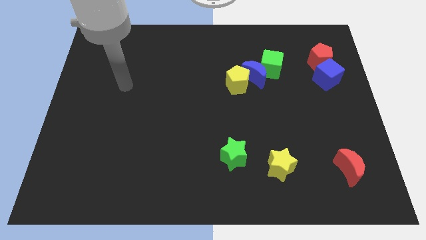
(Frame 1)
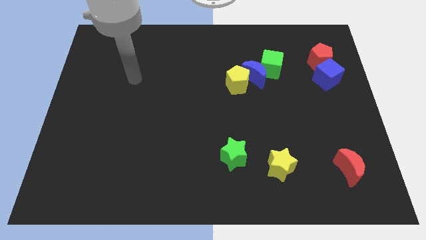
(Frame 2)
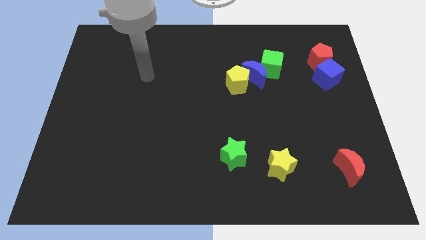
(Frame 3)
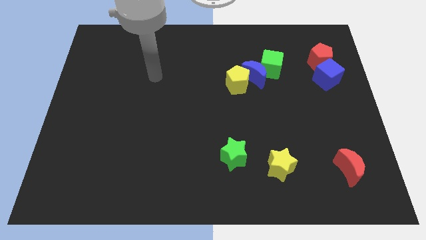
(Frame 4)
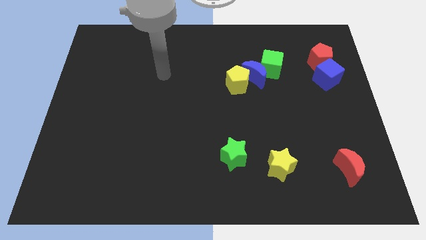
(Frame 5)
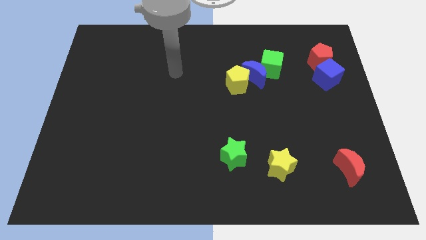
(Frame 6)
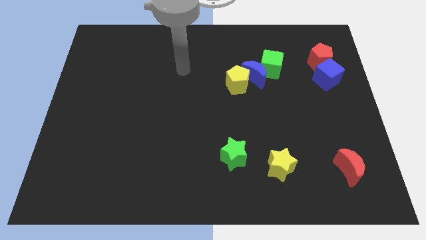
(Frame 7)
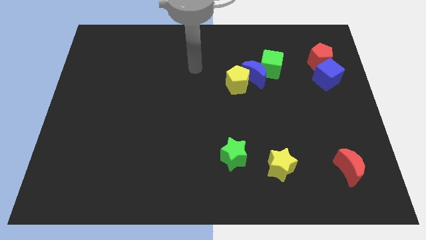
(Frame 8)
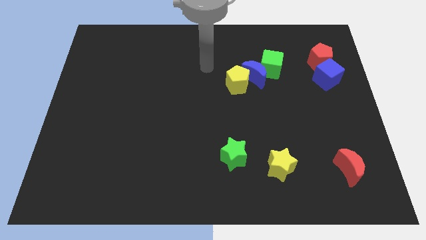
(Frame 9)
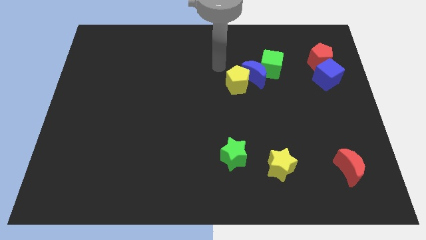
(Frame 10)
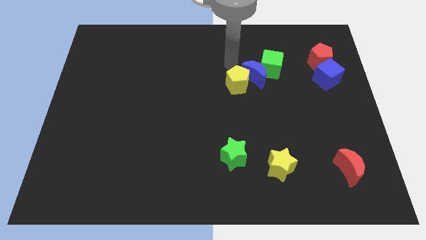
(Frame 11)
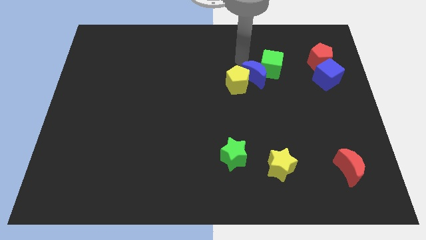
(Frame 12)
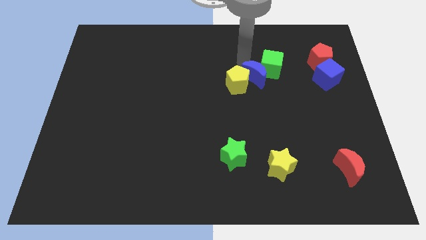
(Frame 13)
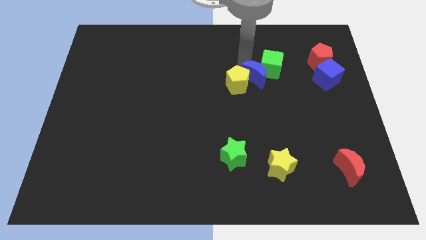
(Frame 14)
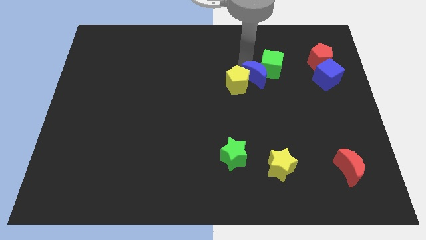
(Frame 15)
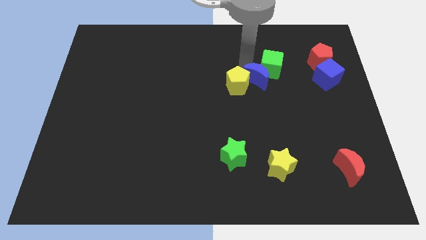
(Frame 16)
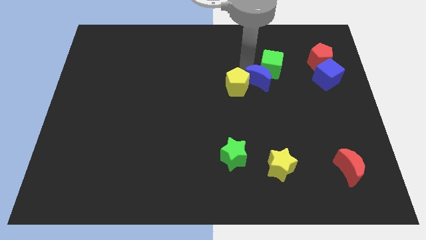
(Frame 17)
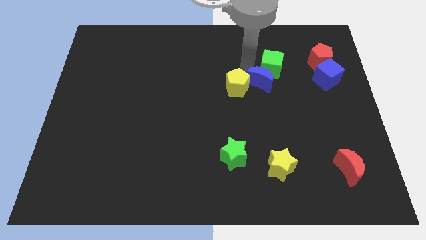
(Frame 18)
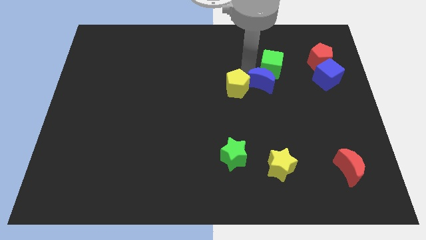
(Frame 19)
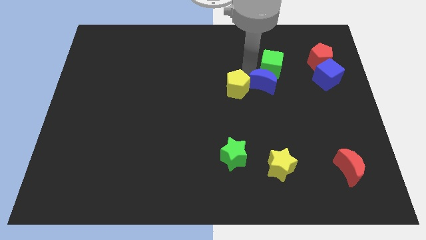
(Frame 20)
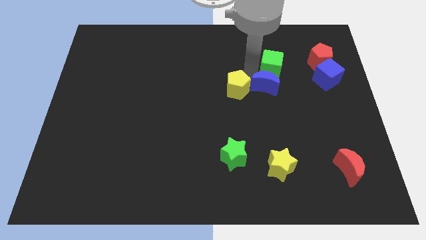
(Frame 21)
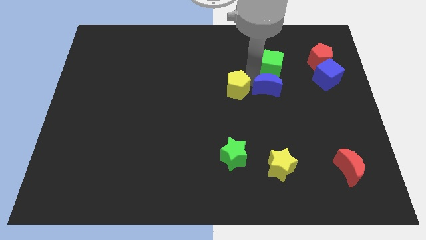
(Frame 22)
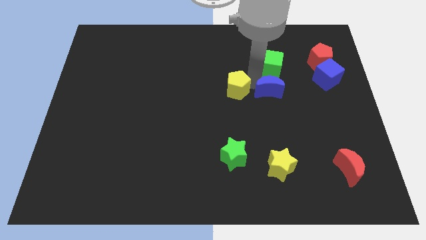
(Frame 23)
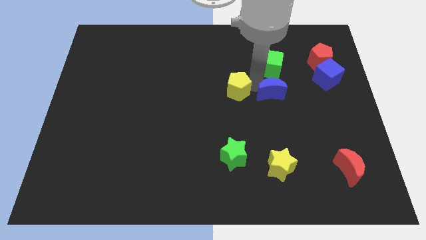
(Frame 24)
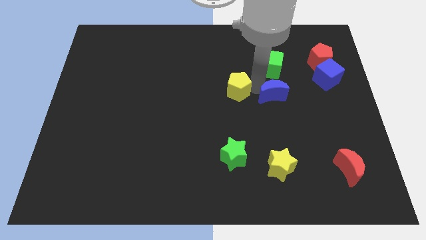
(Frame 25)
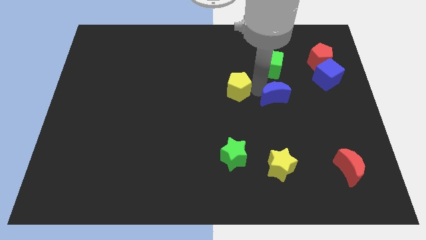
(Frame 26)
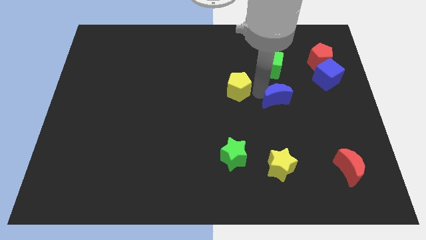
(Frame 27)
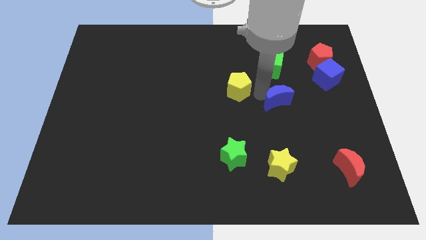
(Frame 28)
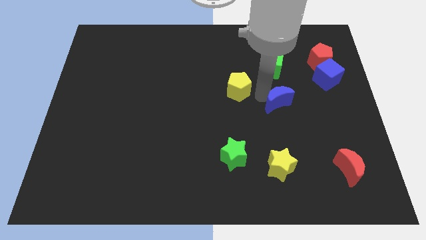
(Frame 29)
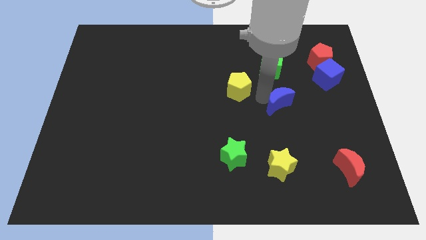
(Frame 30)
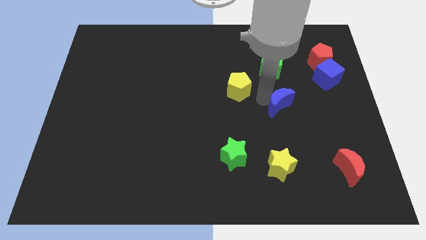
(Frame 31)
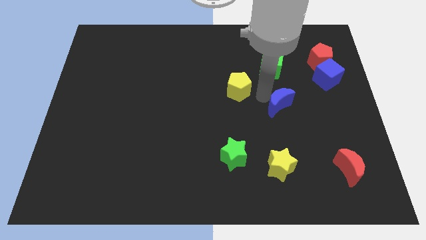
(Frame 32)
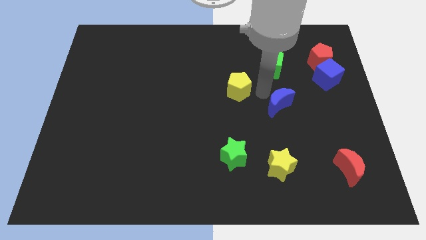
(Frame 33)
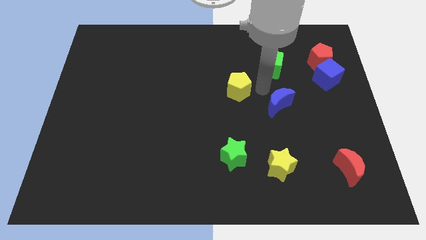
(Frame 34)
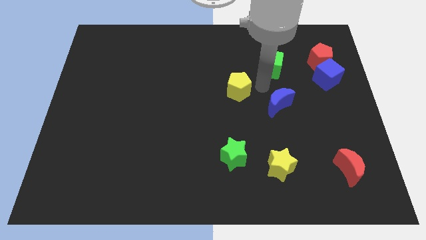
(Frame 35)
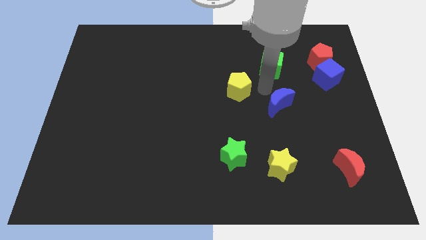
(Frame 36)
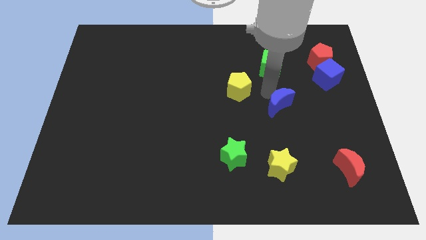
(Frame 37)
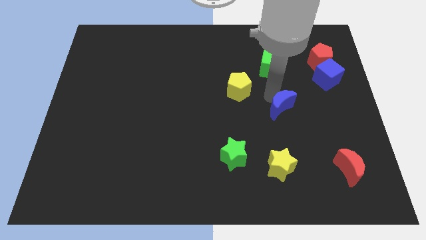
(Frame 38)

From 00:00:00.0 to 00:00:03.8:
pull the blue moon apart from the yellow pentagon and green cube

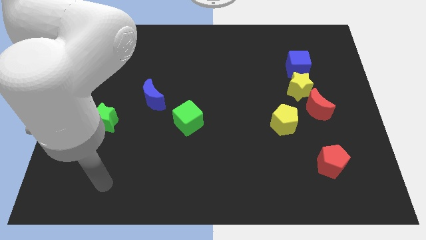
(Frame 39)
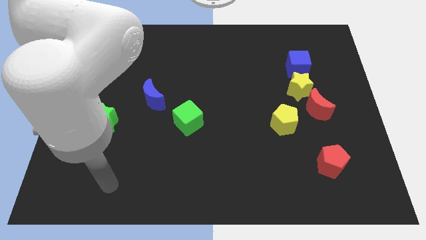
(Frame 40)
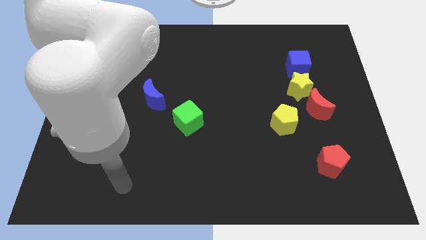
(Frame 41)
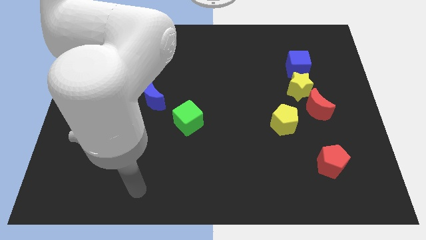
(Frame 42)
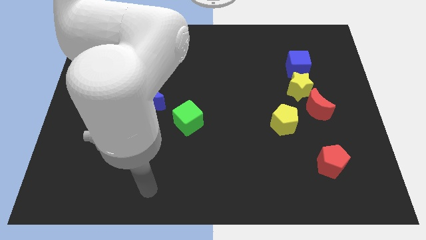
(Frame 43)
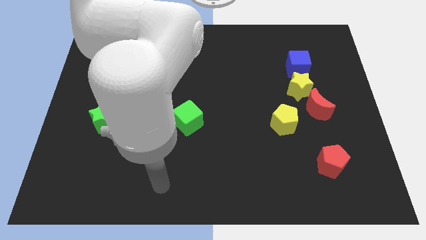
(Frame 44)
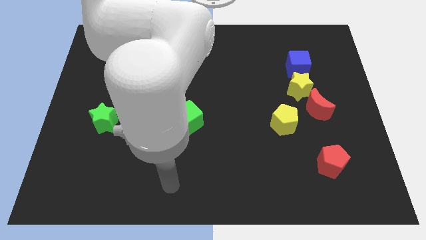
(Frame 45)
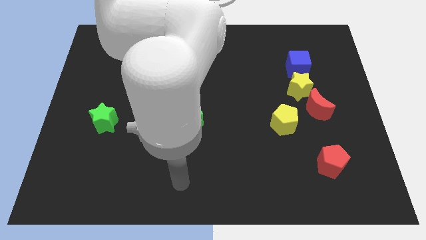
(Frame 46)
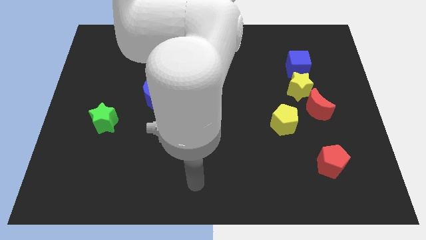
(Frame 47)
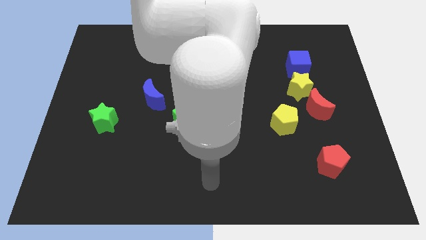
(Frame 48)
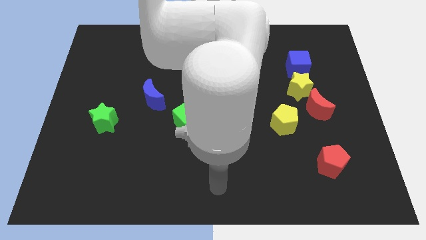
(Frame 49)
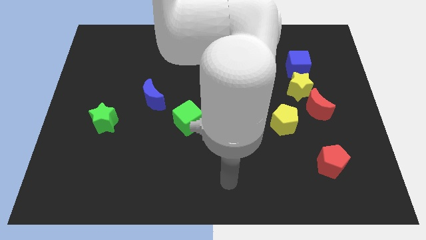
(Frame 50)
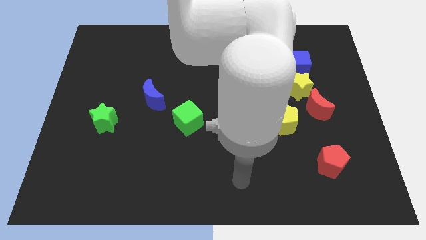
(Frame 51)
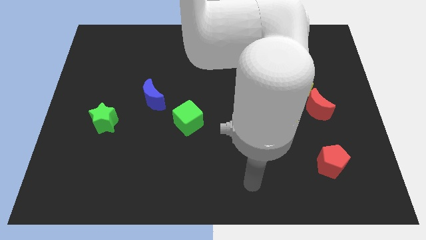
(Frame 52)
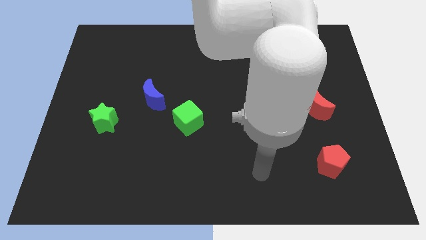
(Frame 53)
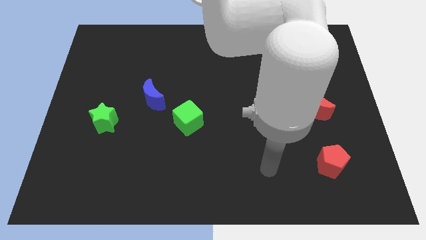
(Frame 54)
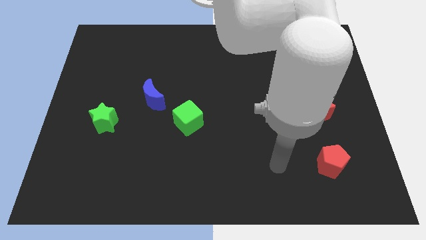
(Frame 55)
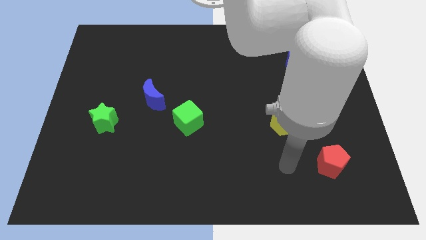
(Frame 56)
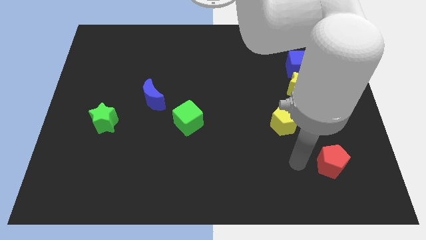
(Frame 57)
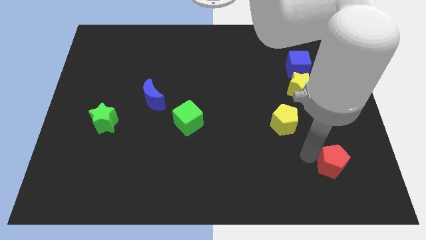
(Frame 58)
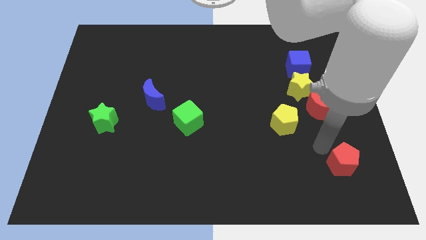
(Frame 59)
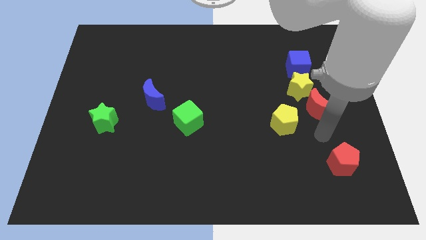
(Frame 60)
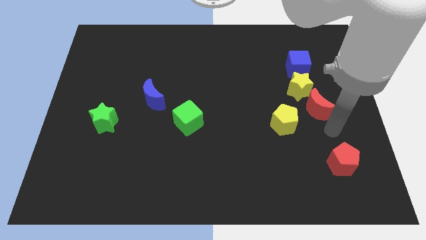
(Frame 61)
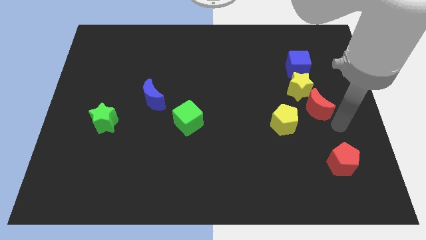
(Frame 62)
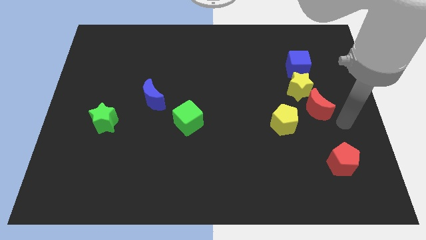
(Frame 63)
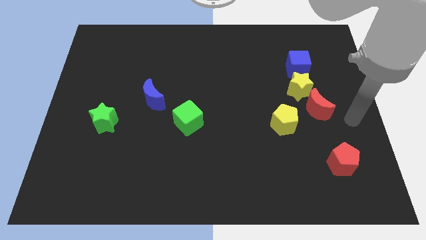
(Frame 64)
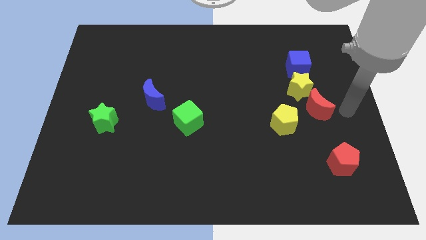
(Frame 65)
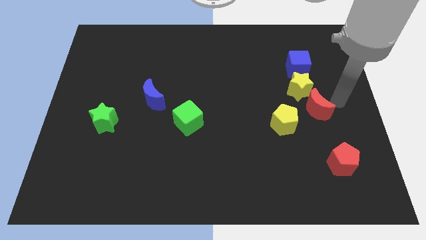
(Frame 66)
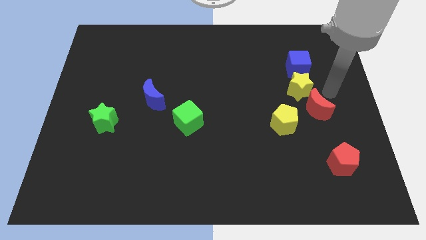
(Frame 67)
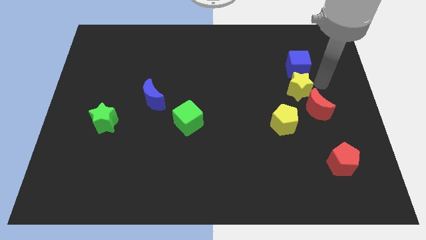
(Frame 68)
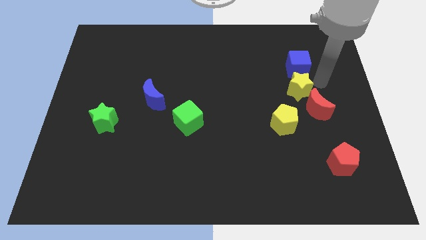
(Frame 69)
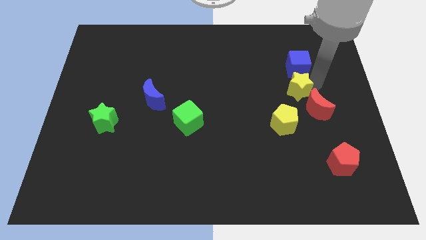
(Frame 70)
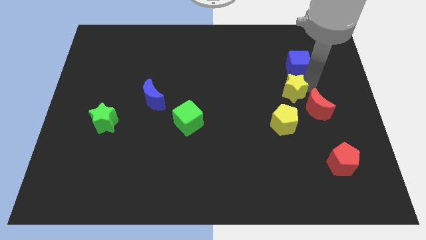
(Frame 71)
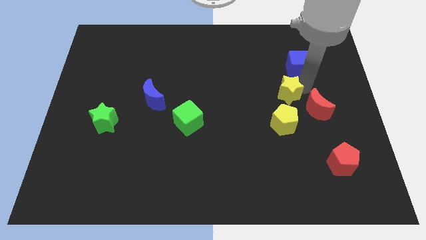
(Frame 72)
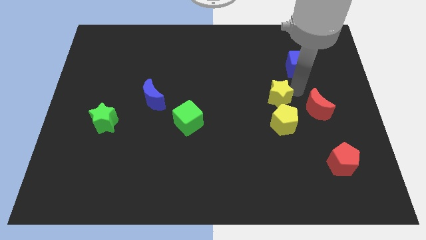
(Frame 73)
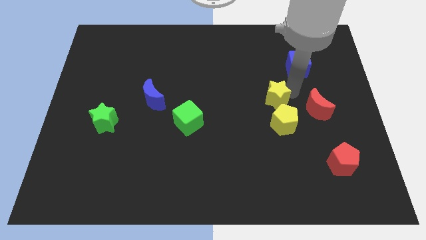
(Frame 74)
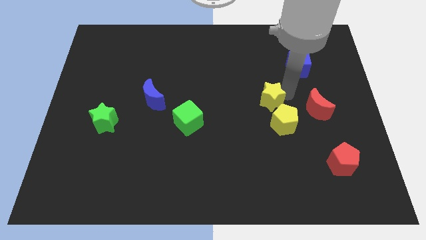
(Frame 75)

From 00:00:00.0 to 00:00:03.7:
pull the yellow star apart from the red moon and blue cube

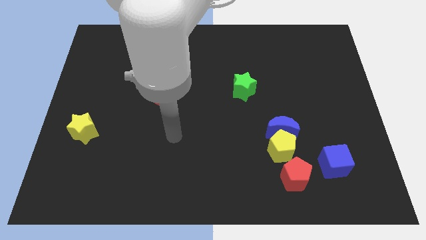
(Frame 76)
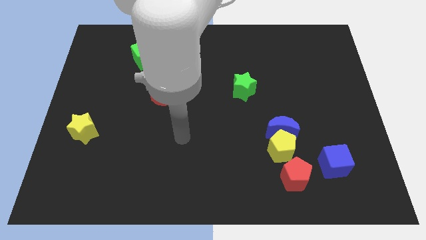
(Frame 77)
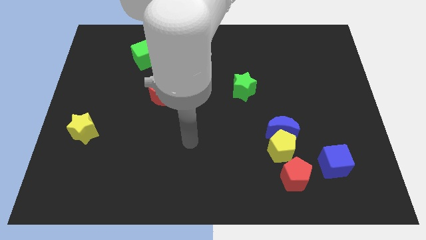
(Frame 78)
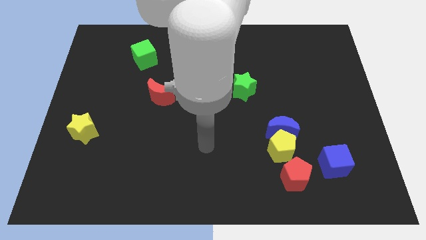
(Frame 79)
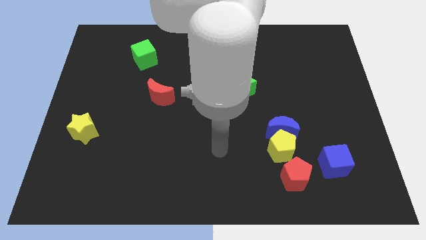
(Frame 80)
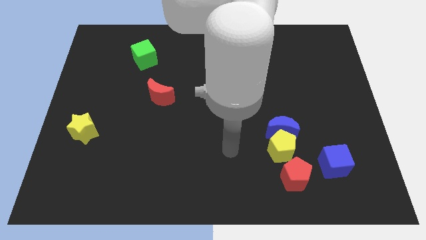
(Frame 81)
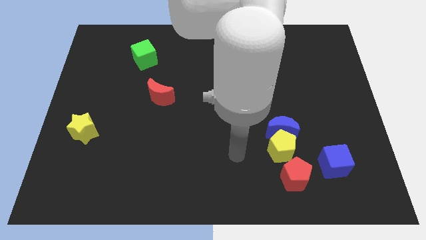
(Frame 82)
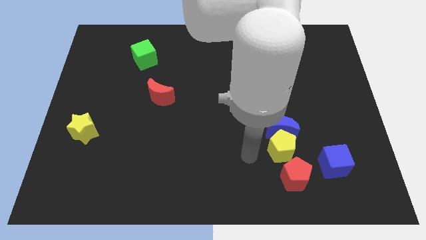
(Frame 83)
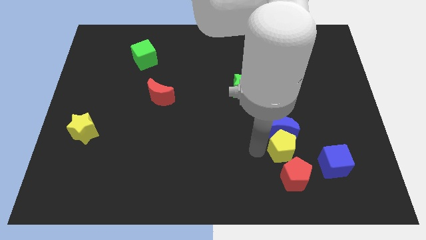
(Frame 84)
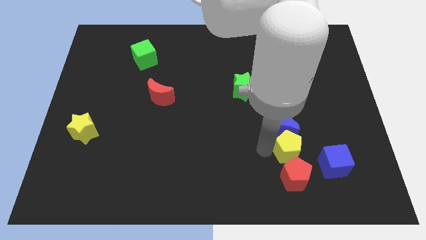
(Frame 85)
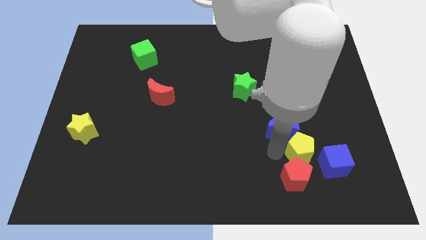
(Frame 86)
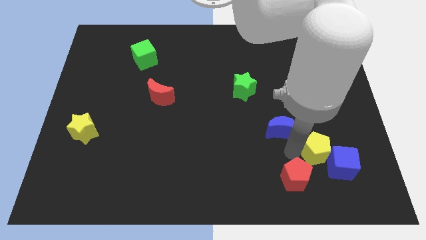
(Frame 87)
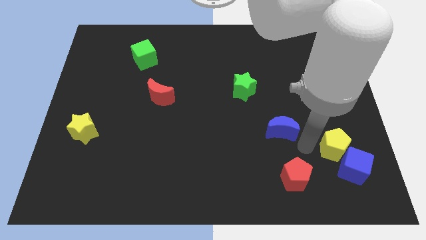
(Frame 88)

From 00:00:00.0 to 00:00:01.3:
move the blue moon away from the yellow pentagon

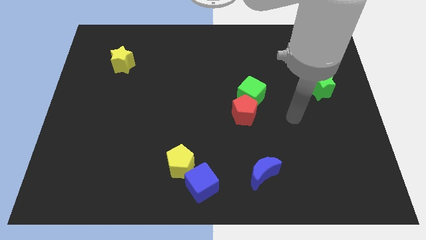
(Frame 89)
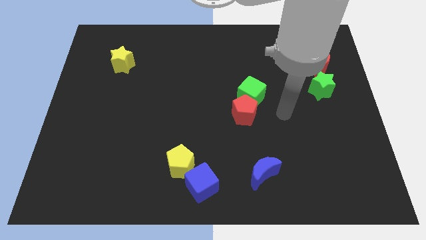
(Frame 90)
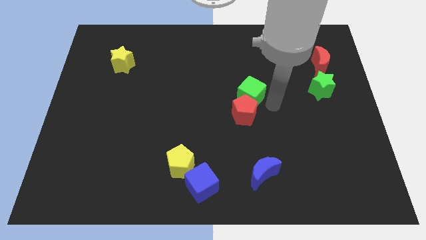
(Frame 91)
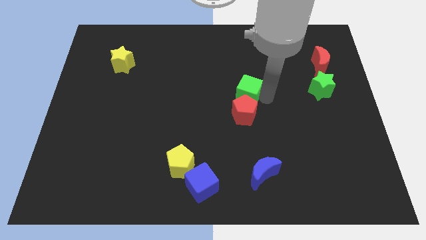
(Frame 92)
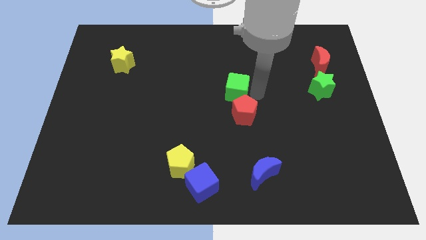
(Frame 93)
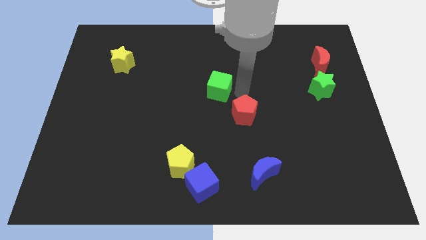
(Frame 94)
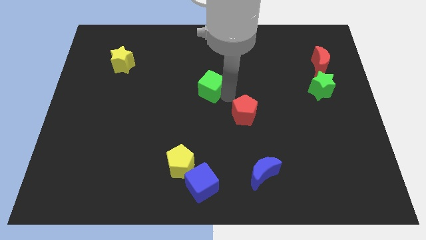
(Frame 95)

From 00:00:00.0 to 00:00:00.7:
separate the red pentagon from the green cube
